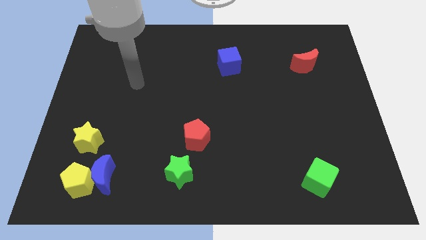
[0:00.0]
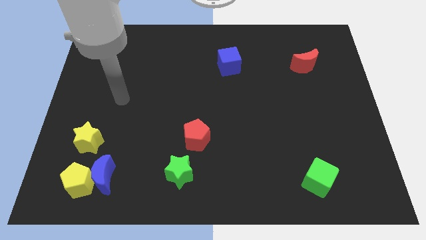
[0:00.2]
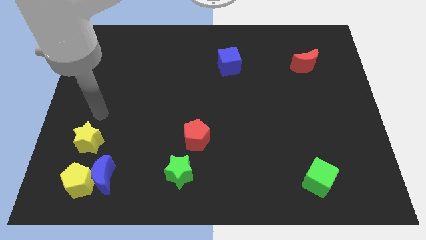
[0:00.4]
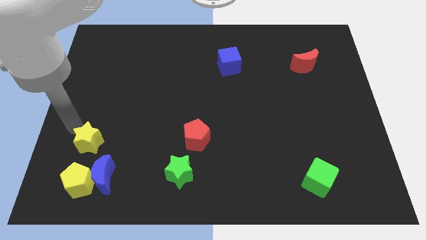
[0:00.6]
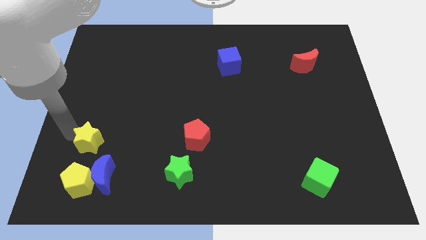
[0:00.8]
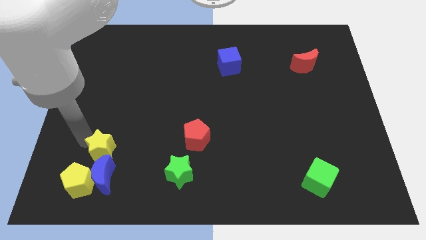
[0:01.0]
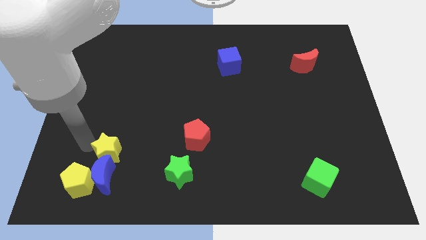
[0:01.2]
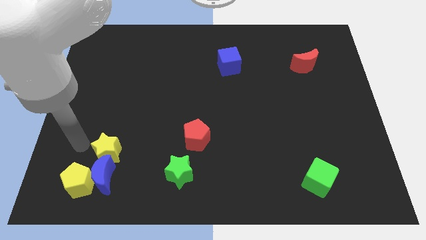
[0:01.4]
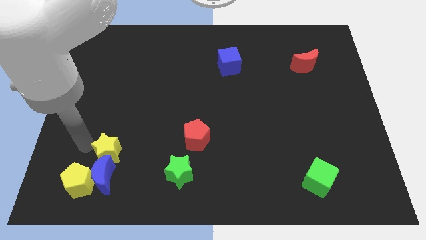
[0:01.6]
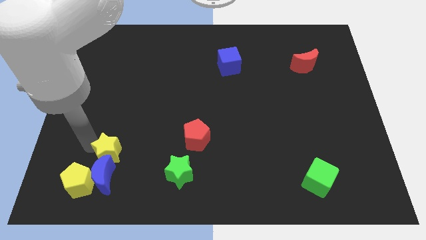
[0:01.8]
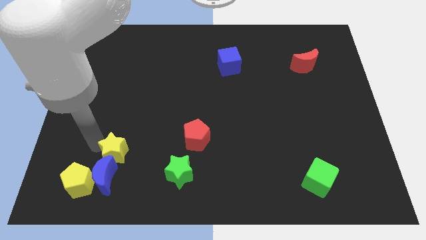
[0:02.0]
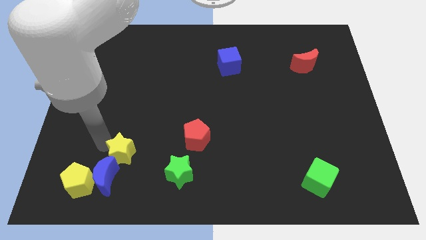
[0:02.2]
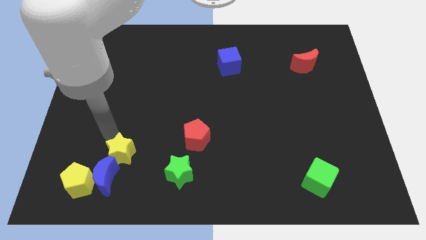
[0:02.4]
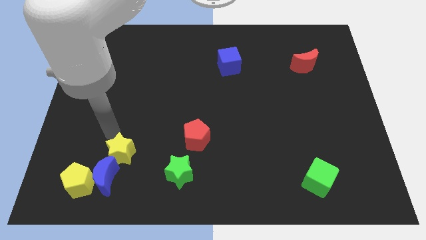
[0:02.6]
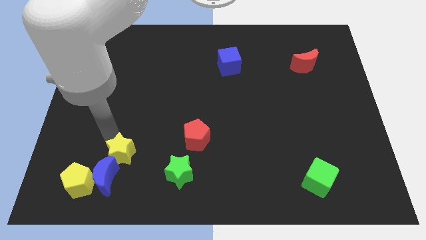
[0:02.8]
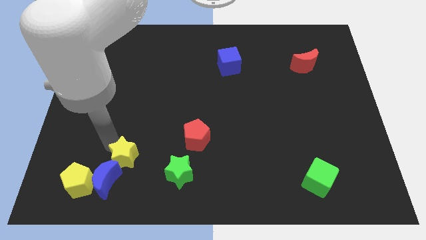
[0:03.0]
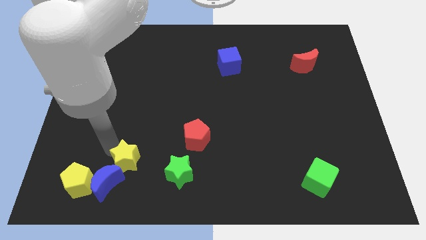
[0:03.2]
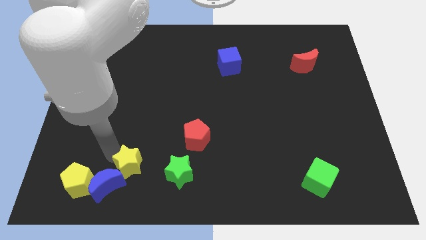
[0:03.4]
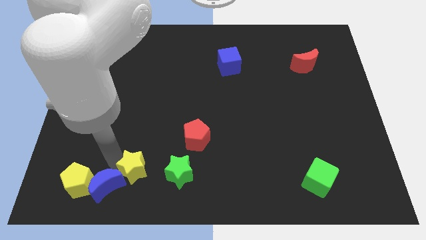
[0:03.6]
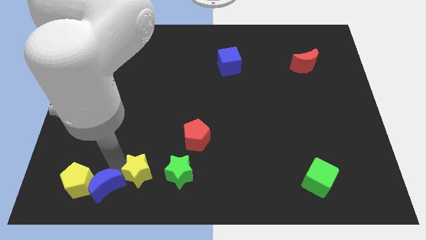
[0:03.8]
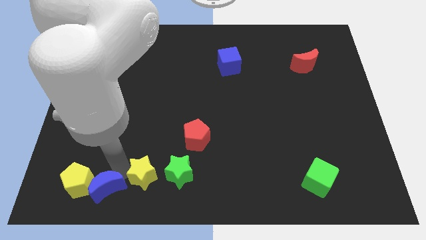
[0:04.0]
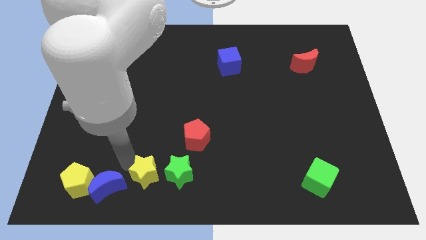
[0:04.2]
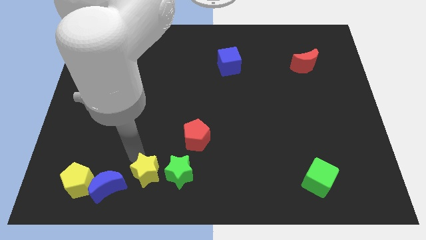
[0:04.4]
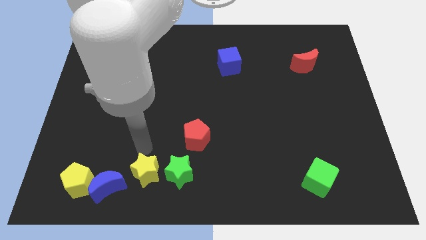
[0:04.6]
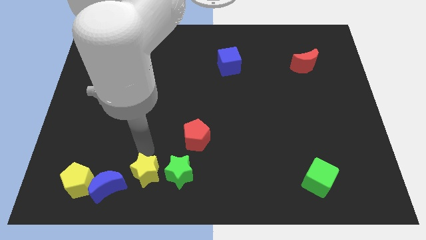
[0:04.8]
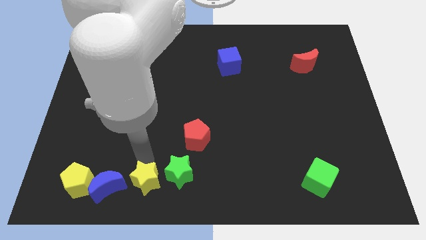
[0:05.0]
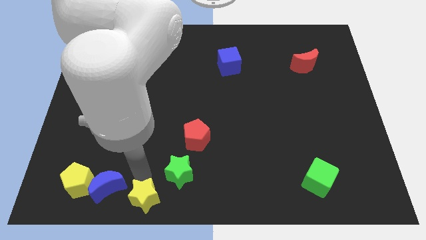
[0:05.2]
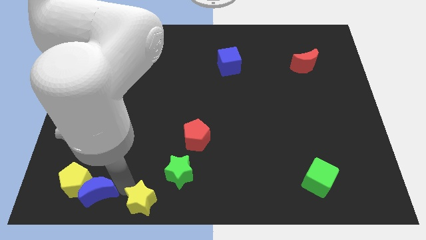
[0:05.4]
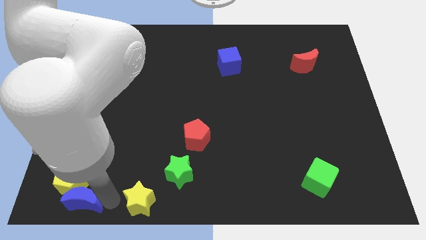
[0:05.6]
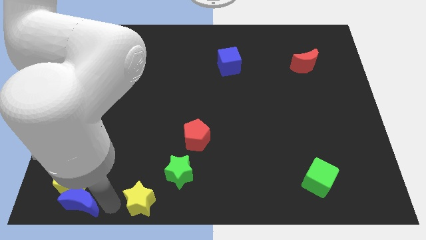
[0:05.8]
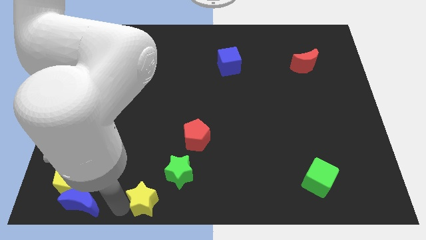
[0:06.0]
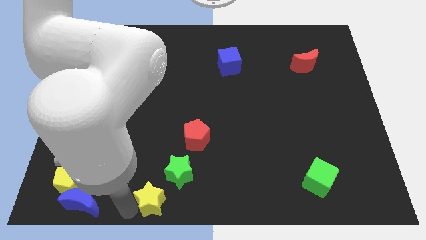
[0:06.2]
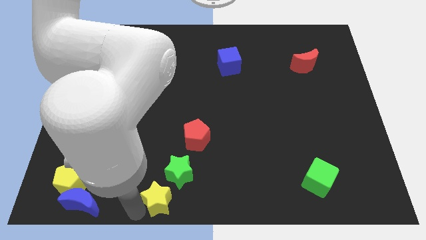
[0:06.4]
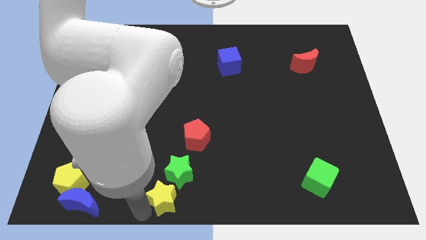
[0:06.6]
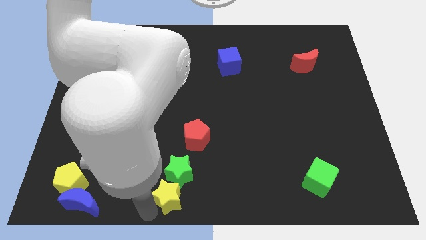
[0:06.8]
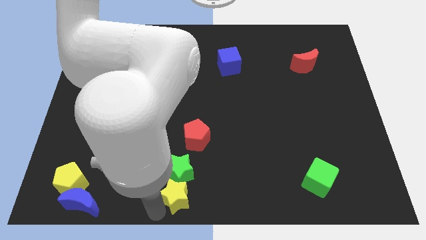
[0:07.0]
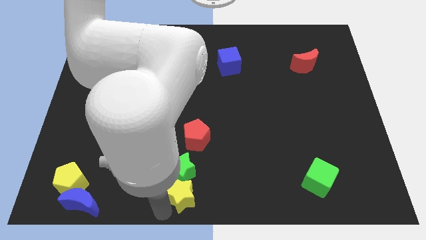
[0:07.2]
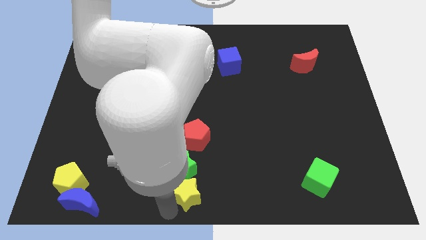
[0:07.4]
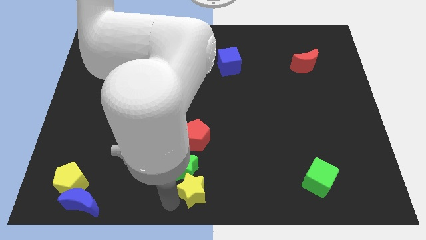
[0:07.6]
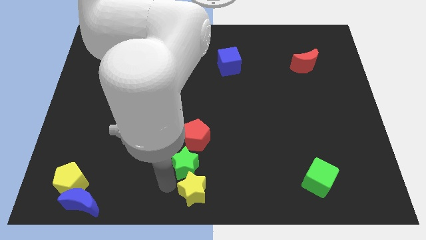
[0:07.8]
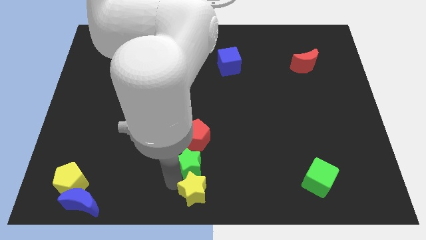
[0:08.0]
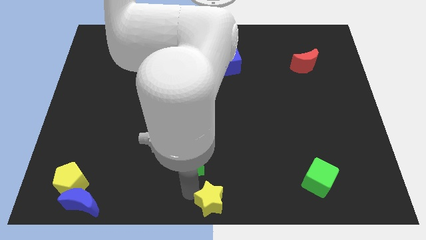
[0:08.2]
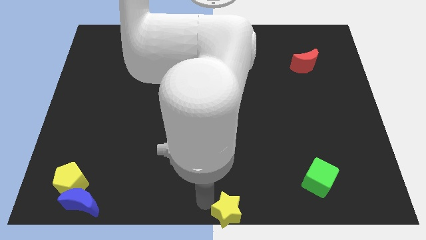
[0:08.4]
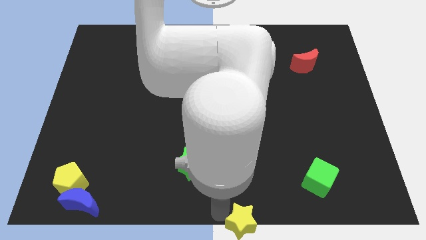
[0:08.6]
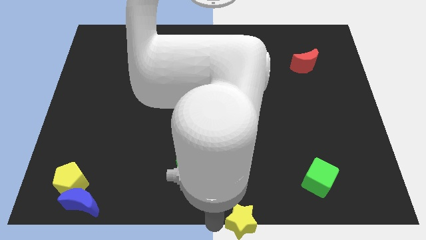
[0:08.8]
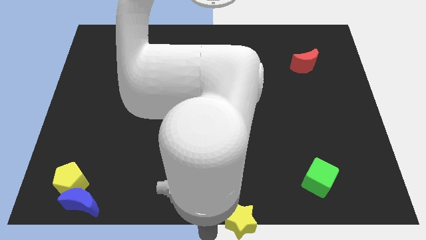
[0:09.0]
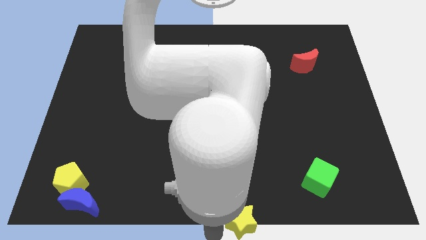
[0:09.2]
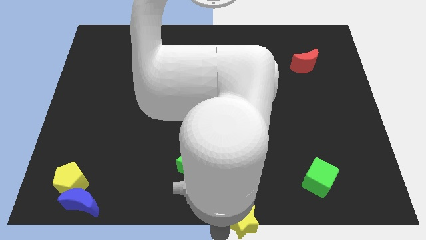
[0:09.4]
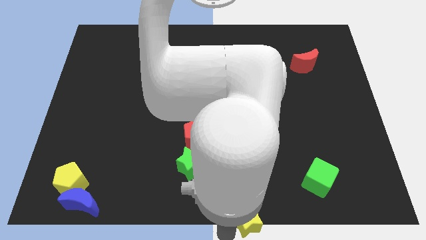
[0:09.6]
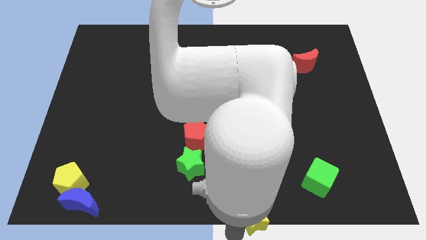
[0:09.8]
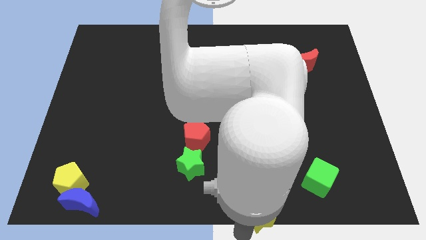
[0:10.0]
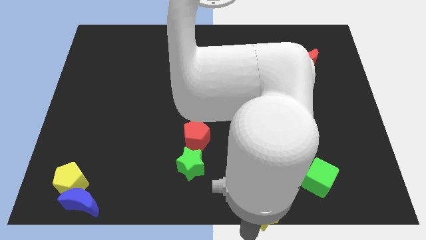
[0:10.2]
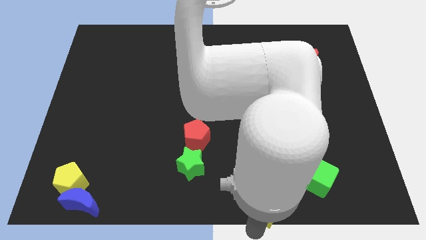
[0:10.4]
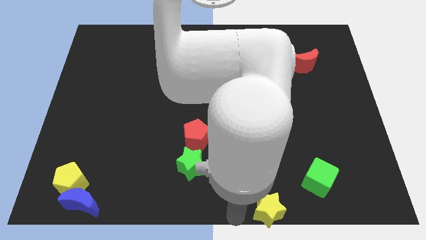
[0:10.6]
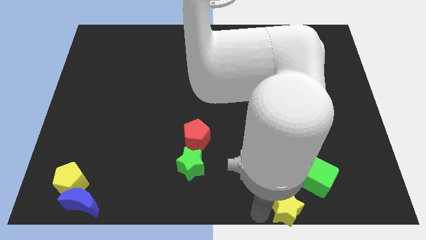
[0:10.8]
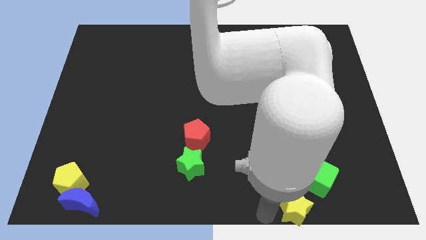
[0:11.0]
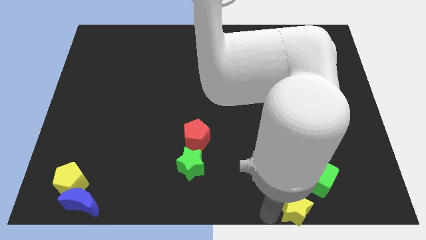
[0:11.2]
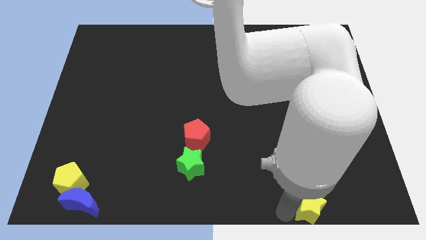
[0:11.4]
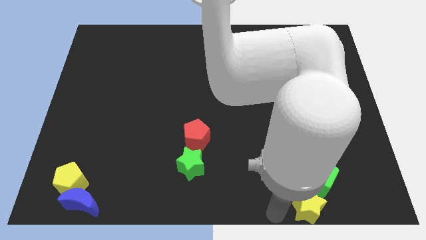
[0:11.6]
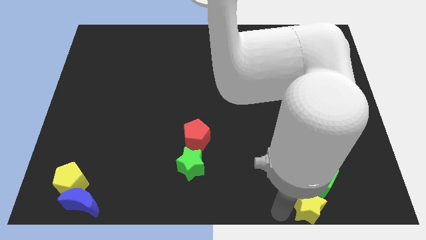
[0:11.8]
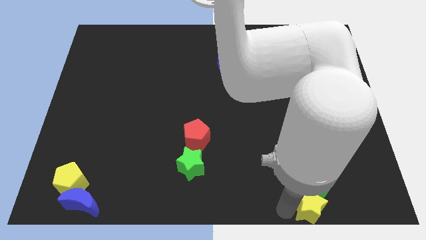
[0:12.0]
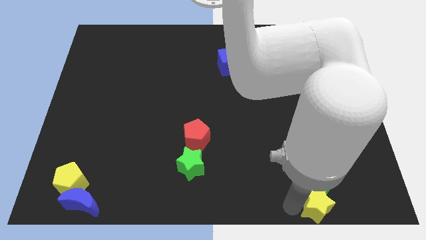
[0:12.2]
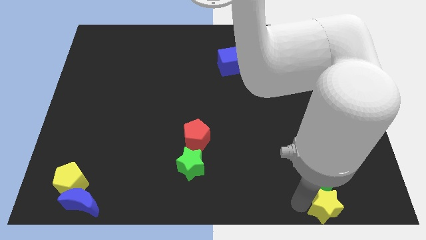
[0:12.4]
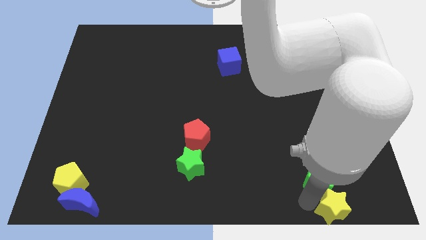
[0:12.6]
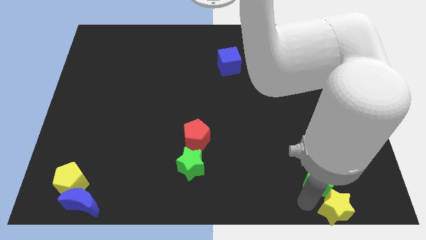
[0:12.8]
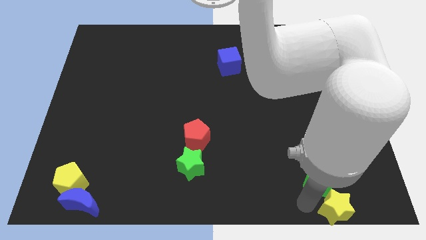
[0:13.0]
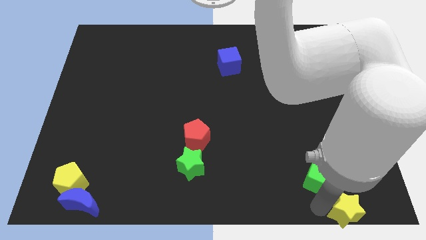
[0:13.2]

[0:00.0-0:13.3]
put the yellow star to the bottom right of the board
